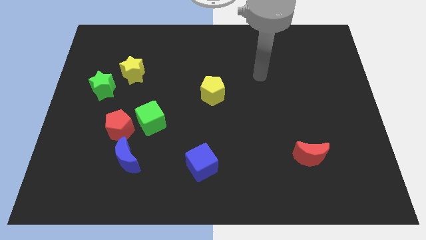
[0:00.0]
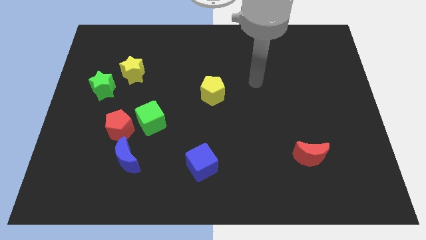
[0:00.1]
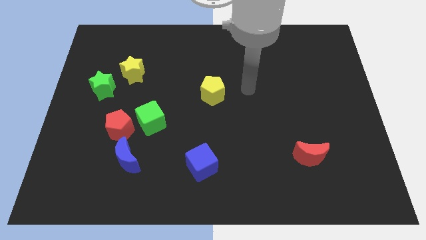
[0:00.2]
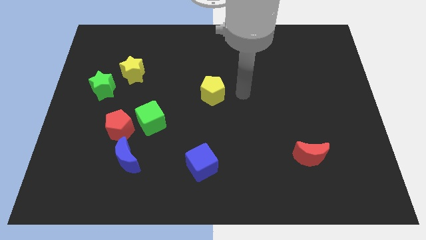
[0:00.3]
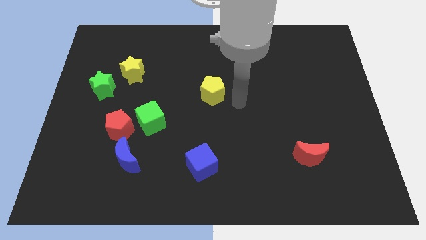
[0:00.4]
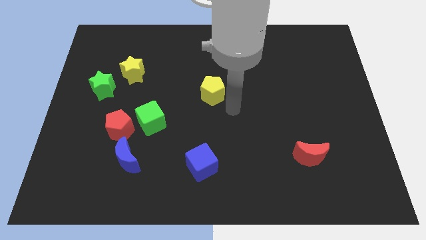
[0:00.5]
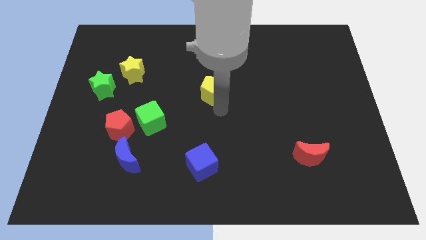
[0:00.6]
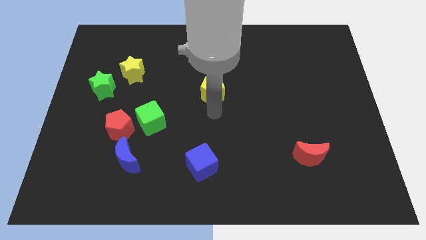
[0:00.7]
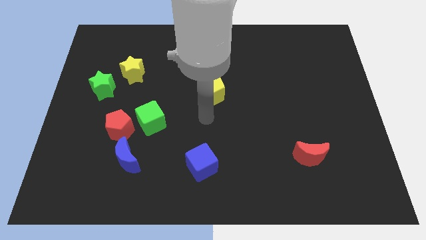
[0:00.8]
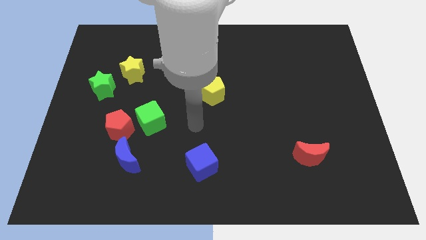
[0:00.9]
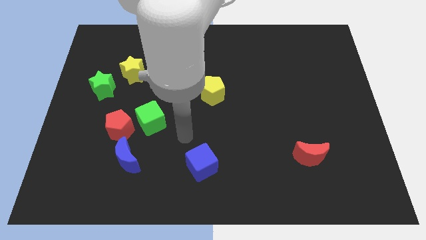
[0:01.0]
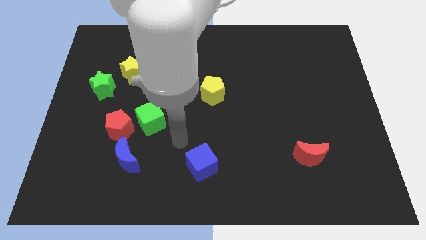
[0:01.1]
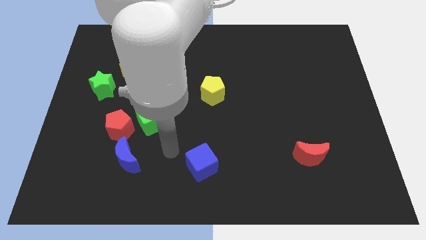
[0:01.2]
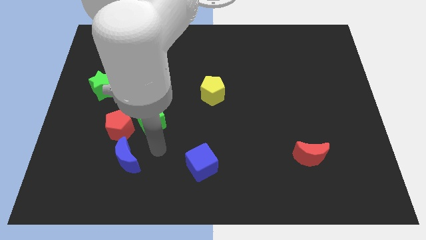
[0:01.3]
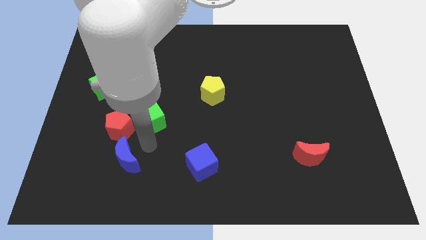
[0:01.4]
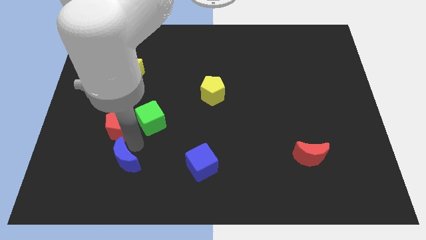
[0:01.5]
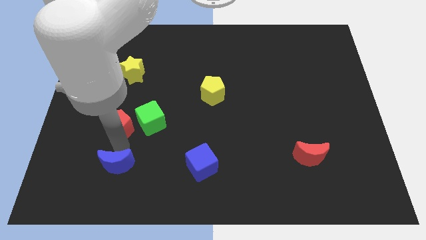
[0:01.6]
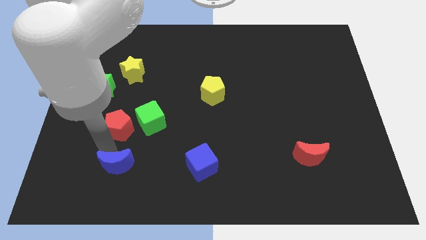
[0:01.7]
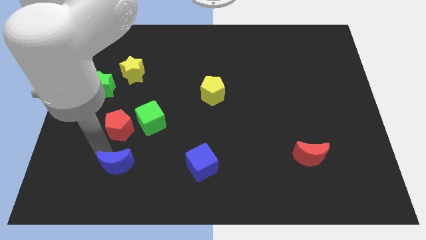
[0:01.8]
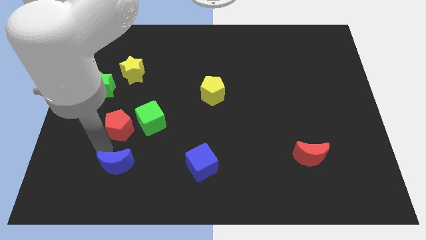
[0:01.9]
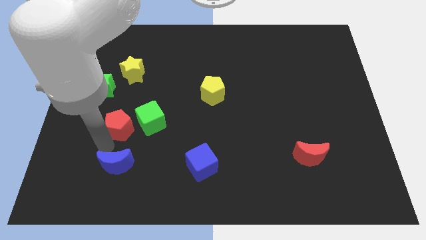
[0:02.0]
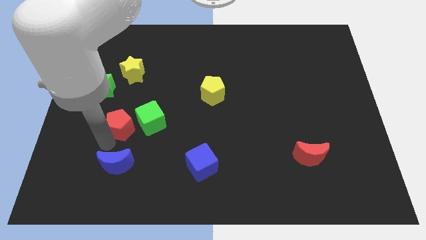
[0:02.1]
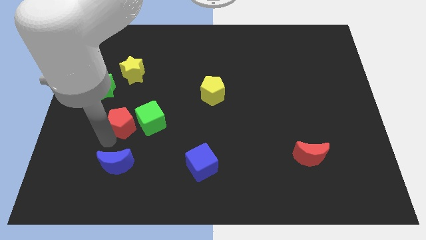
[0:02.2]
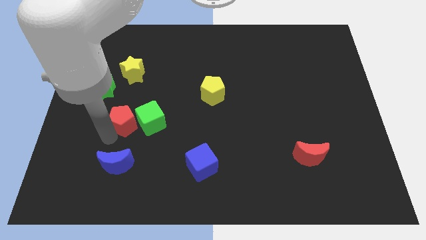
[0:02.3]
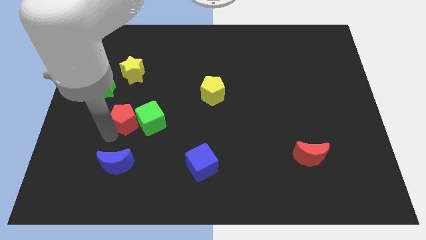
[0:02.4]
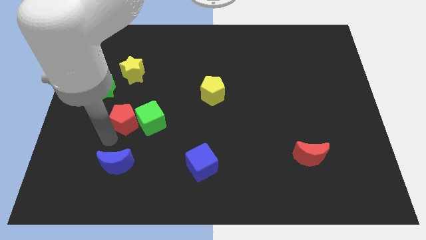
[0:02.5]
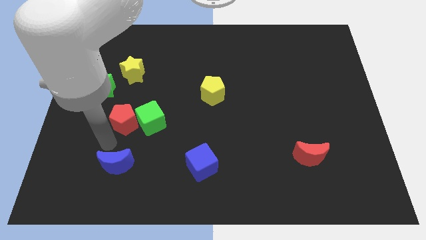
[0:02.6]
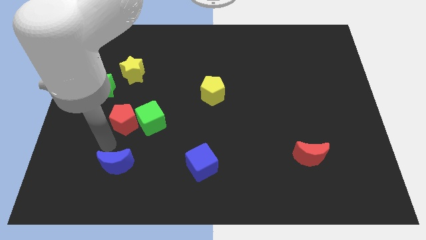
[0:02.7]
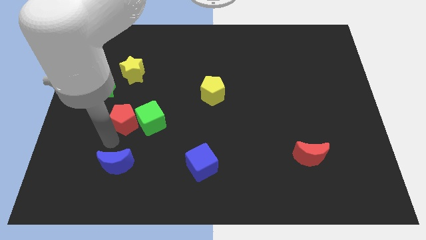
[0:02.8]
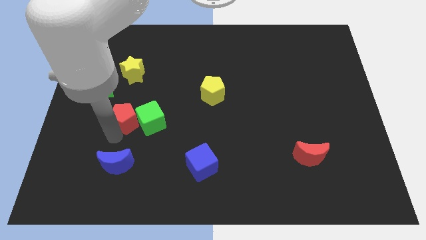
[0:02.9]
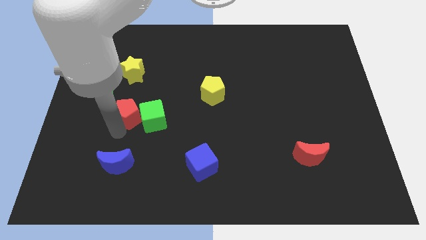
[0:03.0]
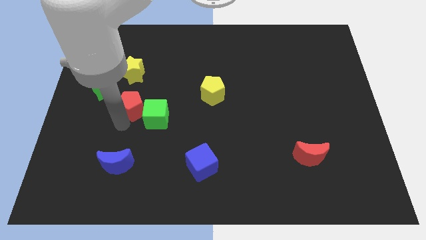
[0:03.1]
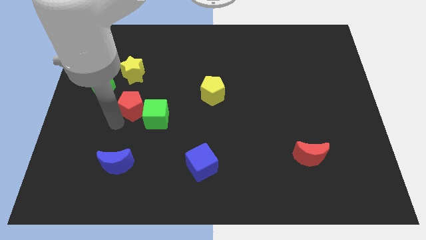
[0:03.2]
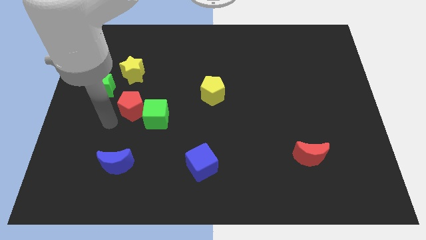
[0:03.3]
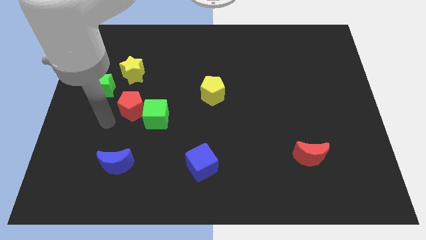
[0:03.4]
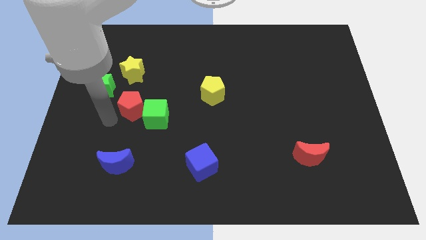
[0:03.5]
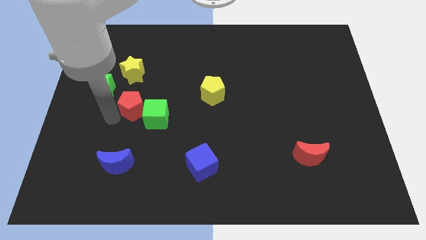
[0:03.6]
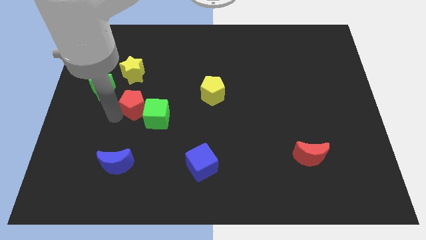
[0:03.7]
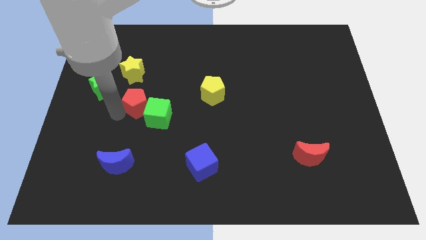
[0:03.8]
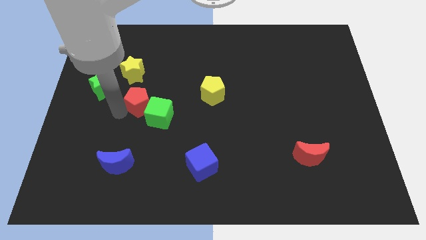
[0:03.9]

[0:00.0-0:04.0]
move the red pentagon slightly upwards and to the right

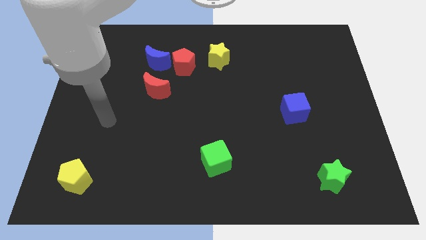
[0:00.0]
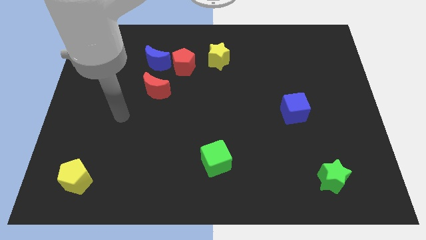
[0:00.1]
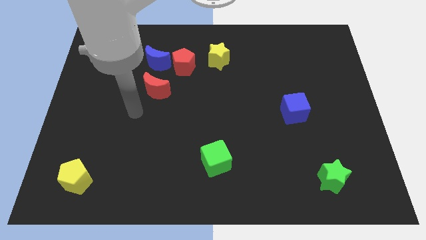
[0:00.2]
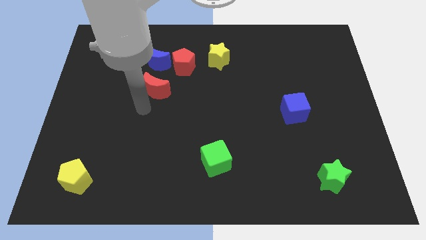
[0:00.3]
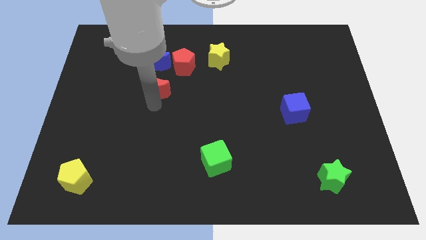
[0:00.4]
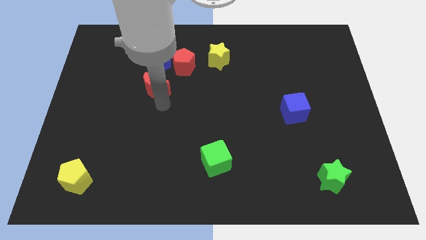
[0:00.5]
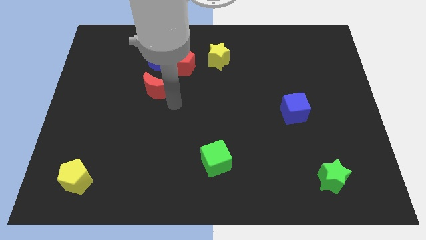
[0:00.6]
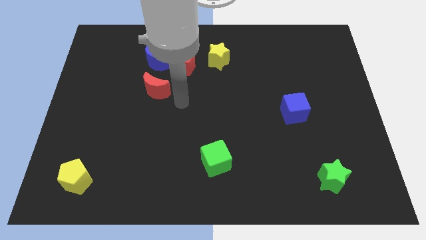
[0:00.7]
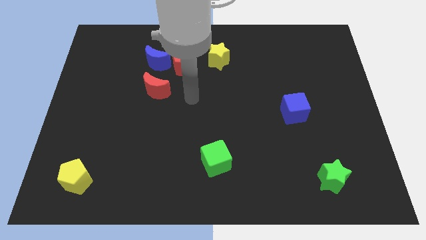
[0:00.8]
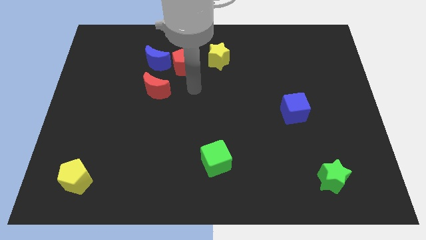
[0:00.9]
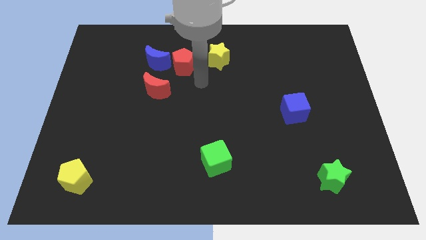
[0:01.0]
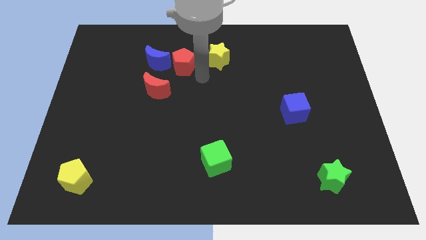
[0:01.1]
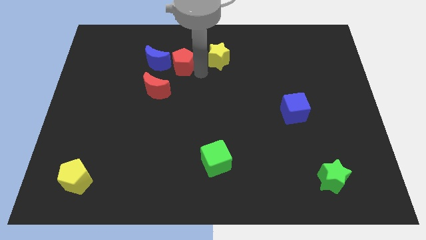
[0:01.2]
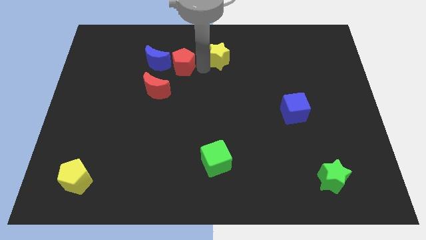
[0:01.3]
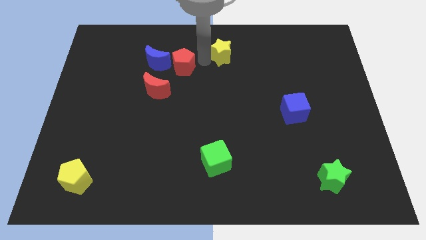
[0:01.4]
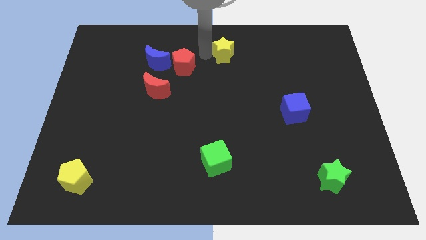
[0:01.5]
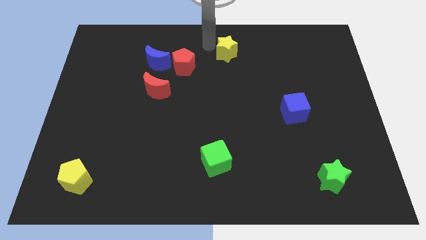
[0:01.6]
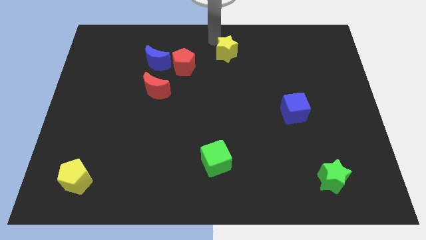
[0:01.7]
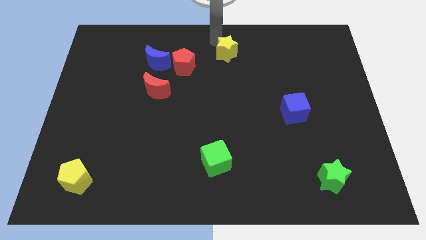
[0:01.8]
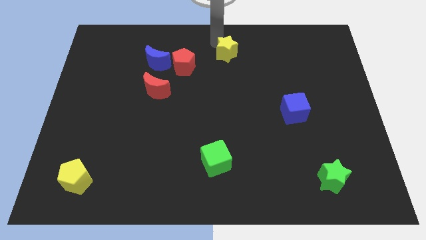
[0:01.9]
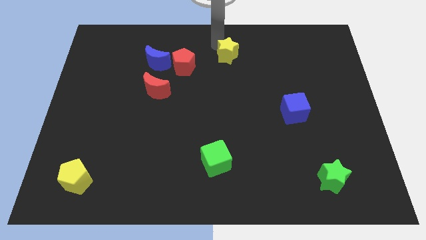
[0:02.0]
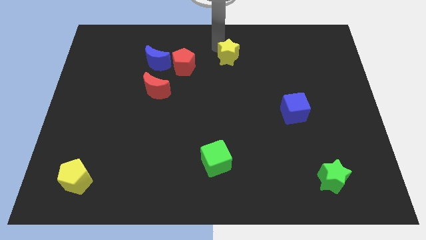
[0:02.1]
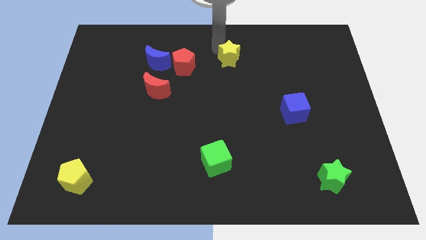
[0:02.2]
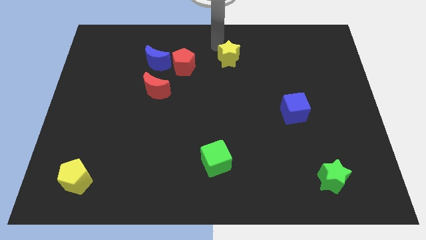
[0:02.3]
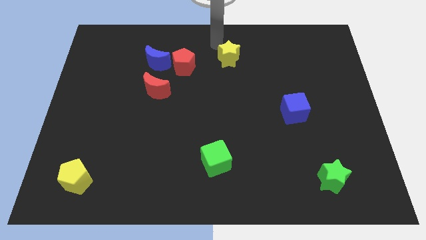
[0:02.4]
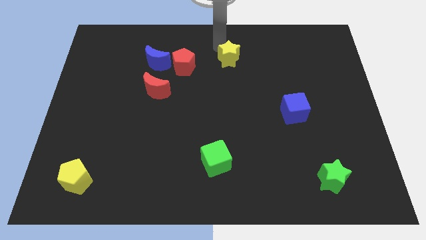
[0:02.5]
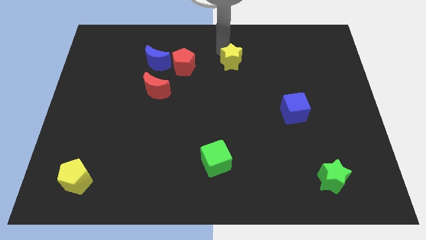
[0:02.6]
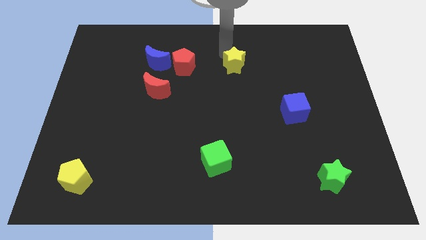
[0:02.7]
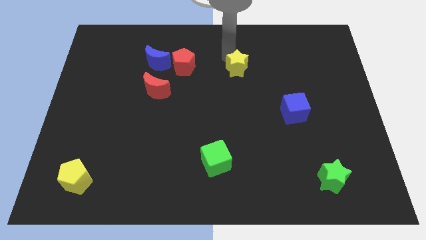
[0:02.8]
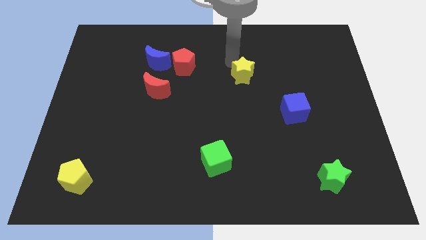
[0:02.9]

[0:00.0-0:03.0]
move the yellow star somewhat downwards and to the right

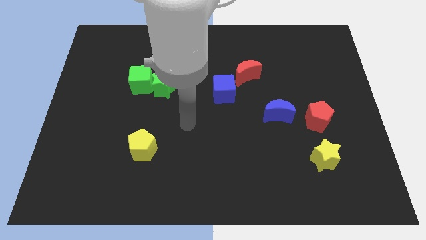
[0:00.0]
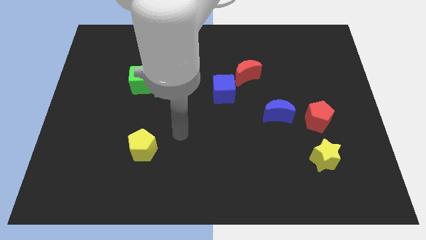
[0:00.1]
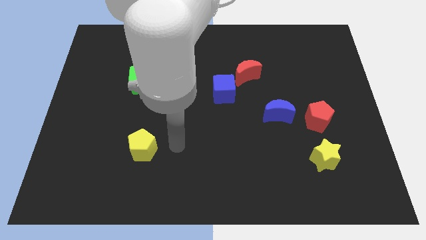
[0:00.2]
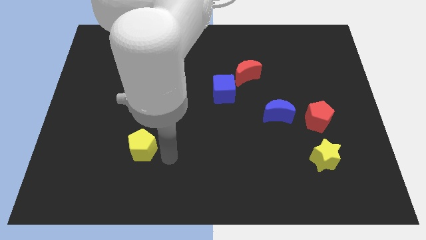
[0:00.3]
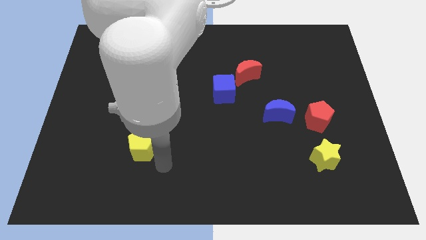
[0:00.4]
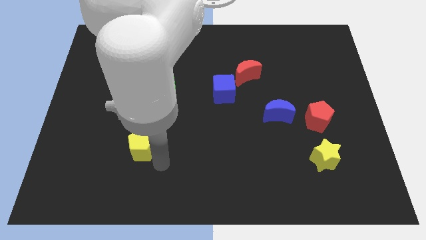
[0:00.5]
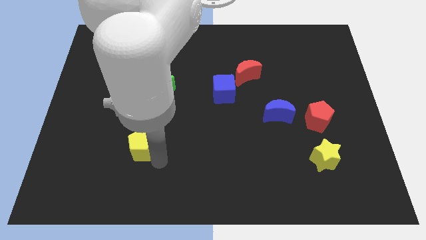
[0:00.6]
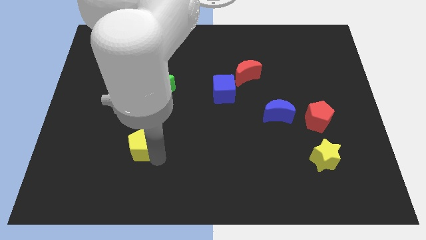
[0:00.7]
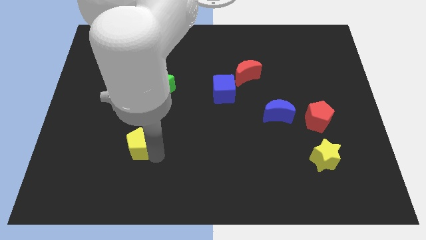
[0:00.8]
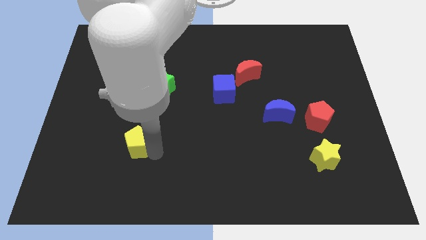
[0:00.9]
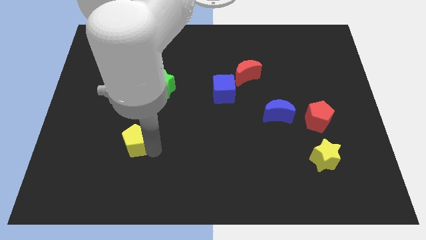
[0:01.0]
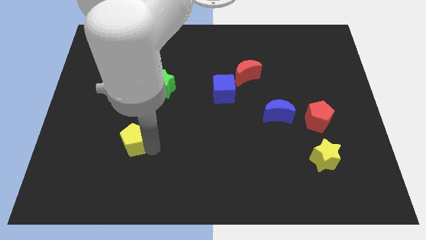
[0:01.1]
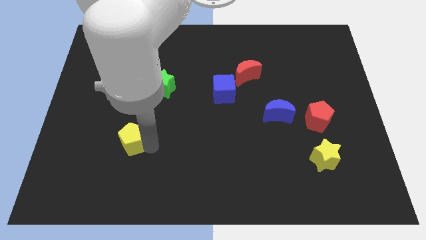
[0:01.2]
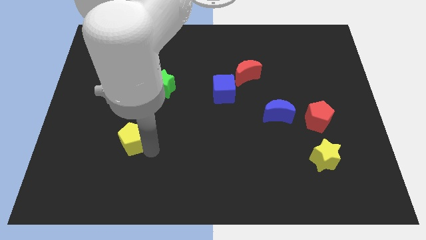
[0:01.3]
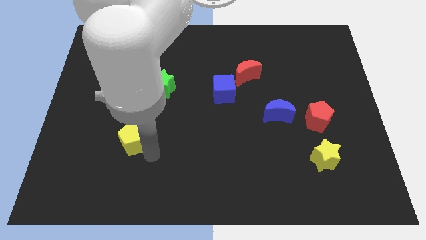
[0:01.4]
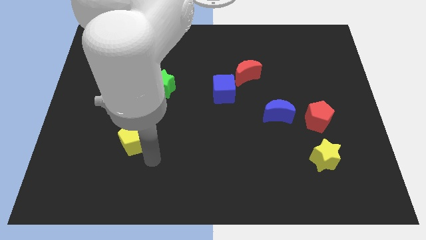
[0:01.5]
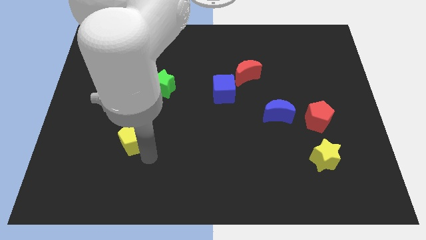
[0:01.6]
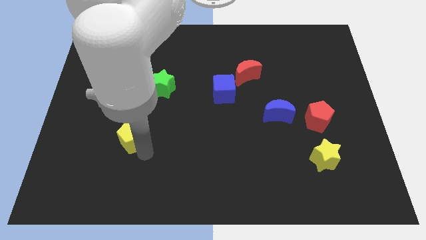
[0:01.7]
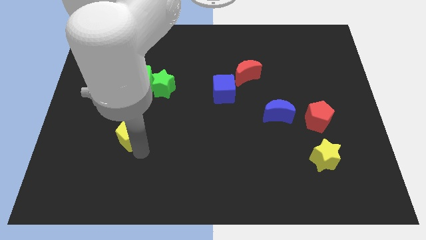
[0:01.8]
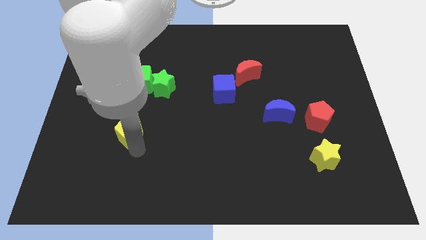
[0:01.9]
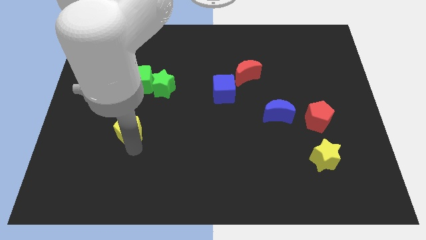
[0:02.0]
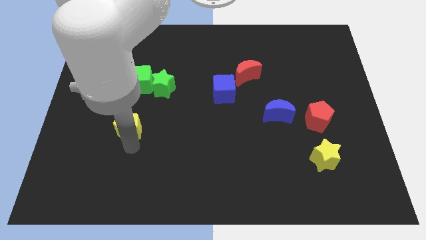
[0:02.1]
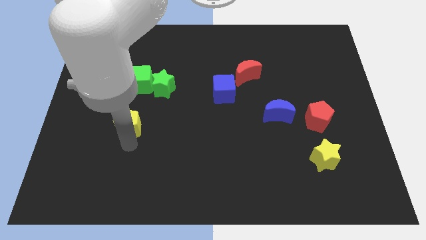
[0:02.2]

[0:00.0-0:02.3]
push the yellow pentagon upwards and left diagonally a bit
